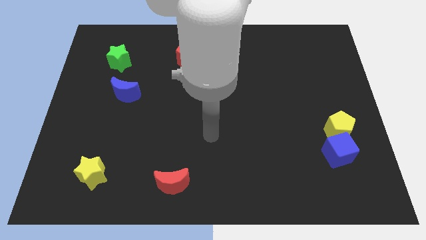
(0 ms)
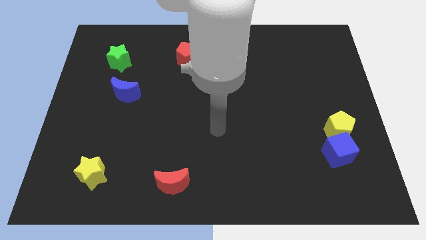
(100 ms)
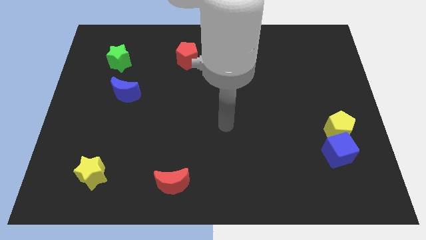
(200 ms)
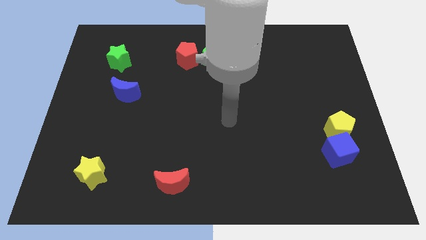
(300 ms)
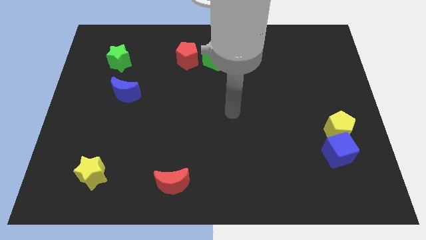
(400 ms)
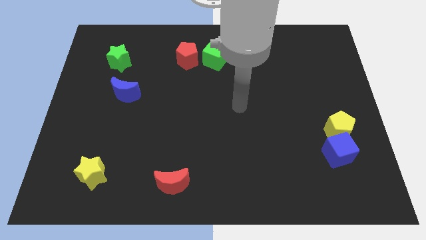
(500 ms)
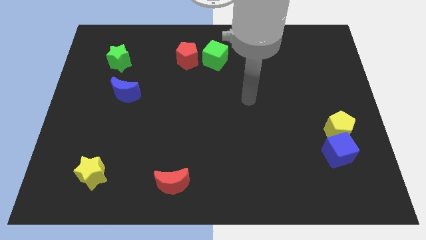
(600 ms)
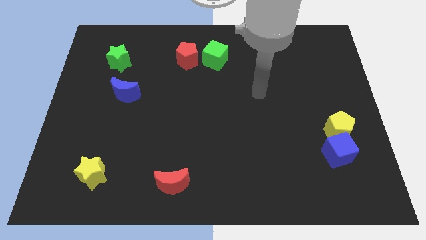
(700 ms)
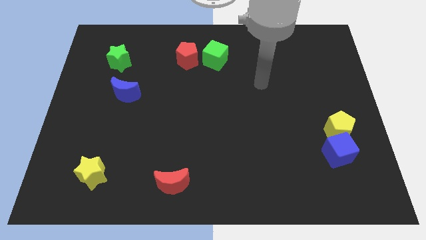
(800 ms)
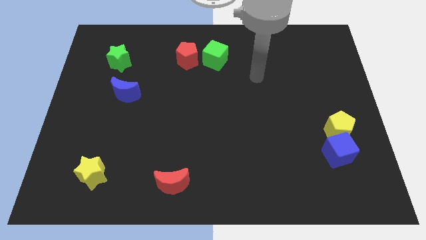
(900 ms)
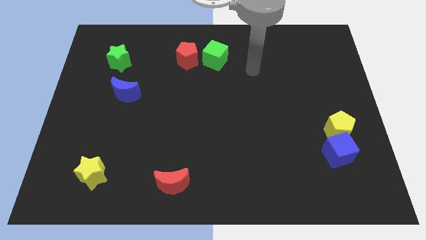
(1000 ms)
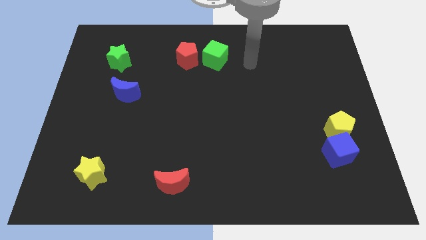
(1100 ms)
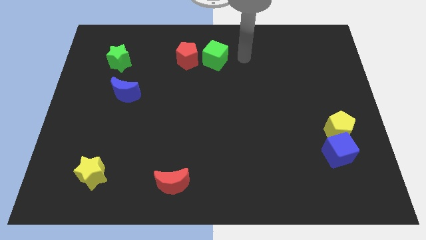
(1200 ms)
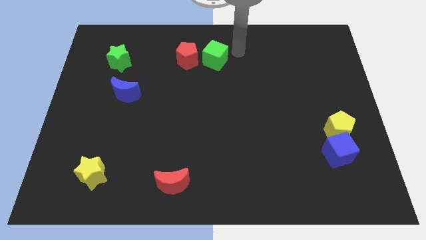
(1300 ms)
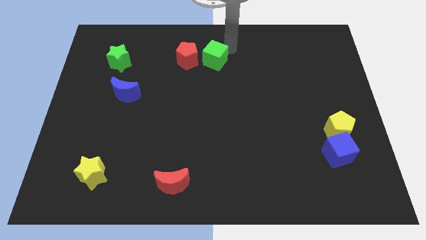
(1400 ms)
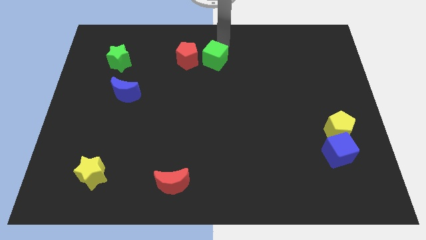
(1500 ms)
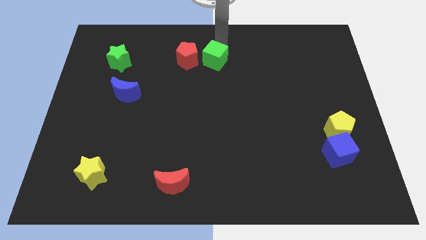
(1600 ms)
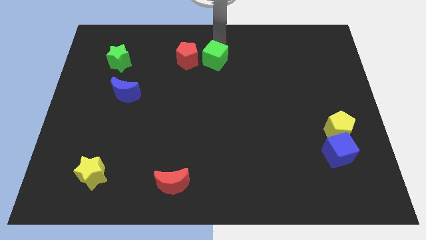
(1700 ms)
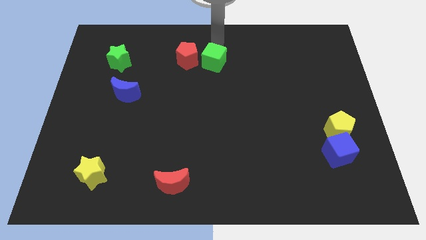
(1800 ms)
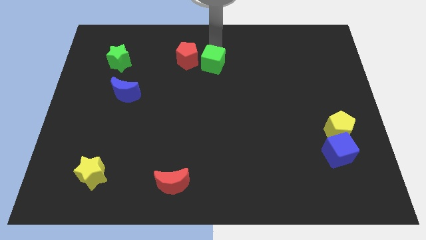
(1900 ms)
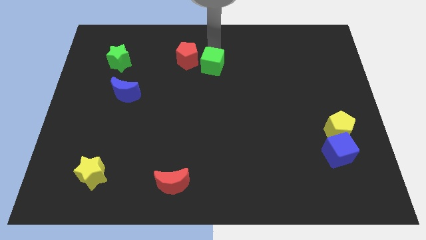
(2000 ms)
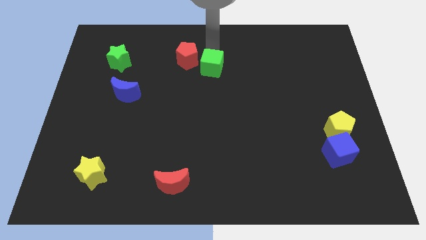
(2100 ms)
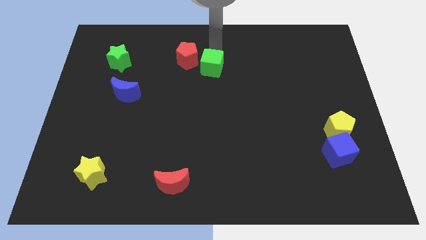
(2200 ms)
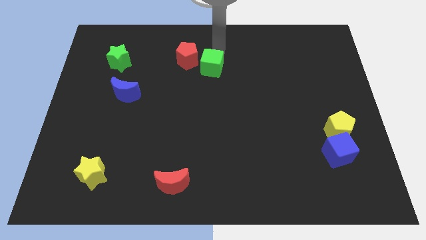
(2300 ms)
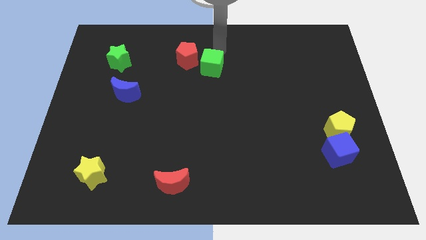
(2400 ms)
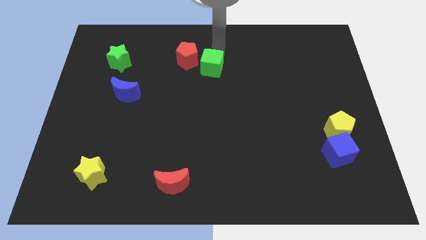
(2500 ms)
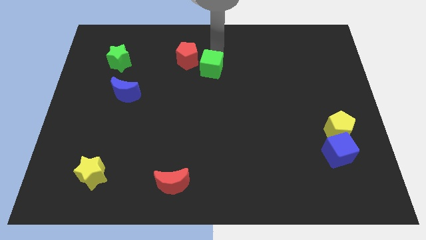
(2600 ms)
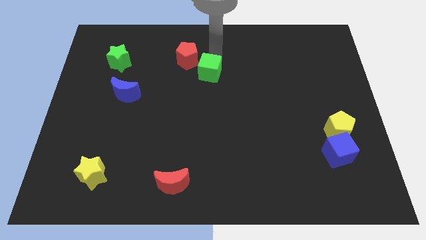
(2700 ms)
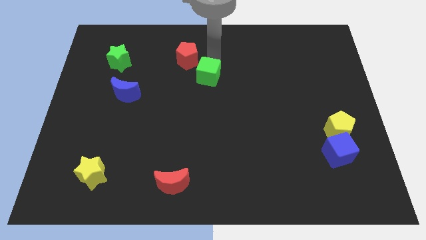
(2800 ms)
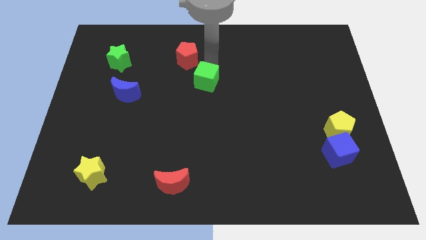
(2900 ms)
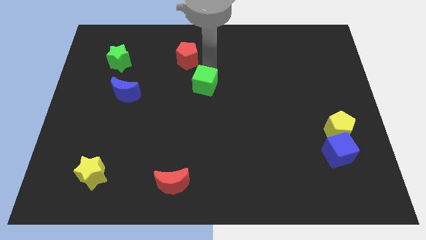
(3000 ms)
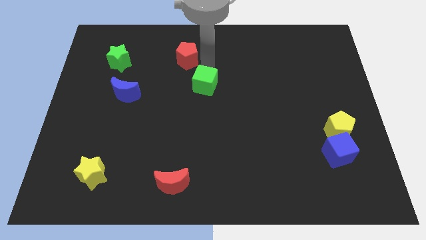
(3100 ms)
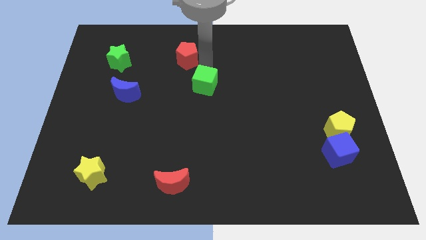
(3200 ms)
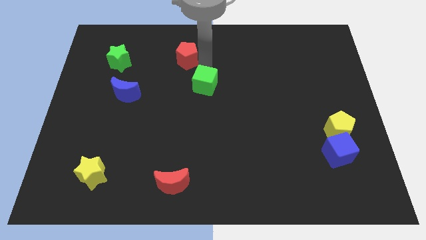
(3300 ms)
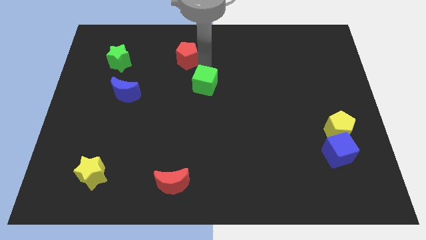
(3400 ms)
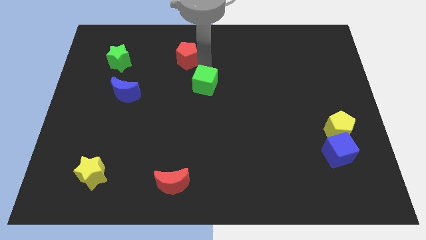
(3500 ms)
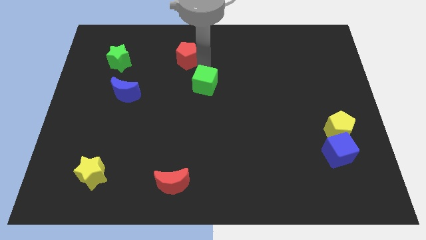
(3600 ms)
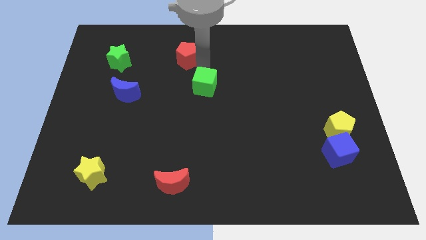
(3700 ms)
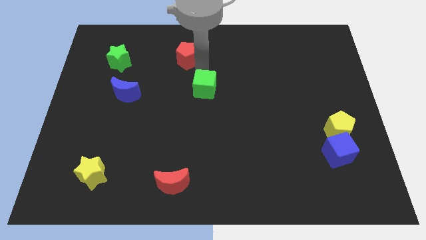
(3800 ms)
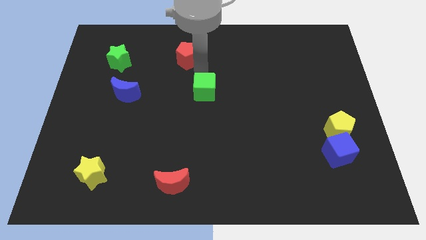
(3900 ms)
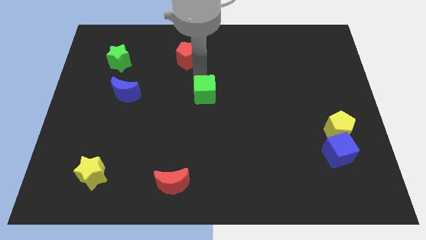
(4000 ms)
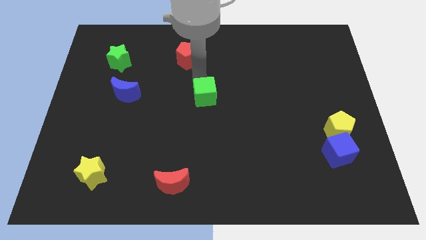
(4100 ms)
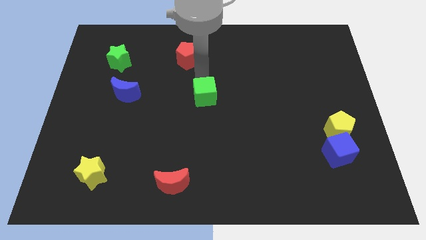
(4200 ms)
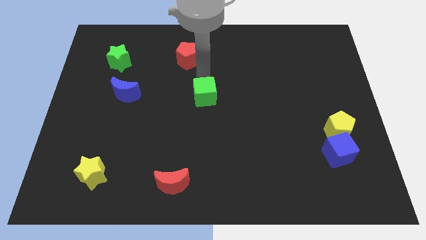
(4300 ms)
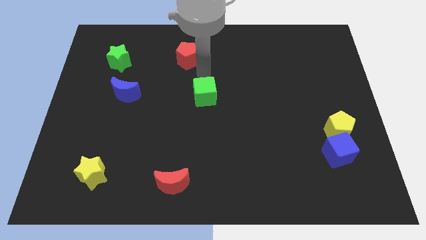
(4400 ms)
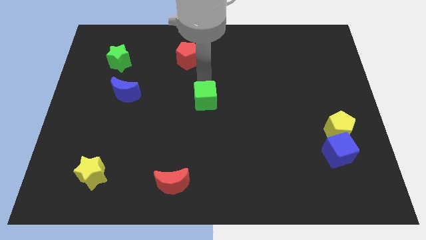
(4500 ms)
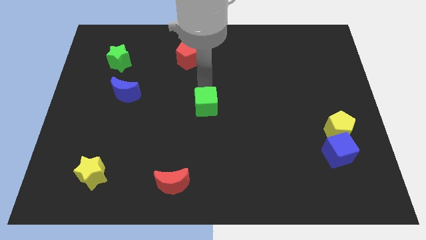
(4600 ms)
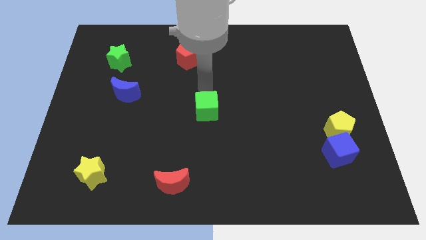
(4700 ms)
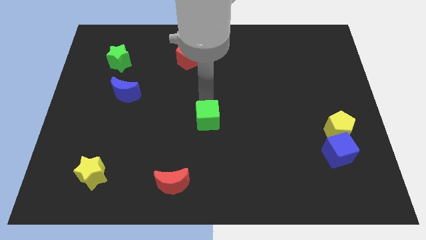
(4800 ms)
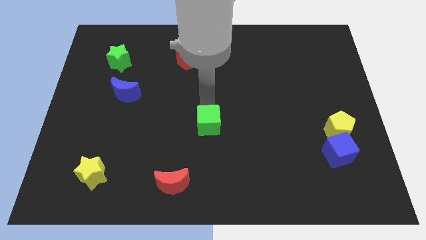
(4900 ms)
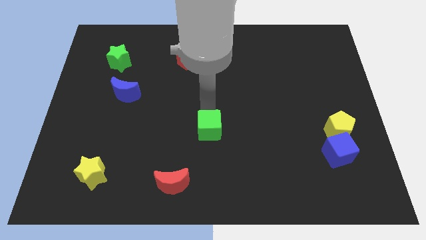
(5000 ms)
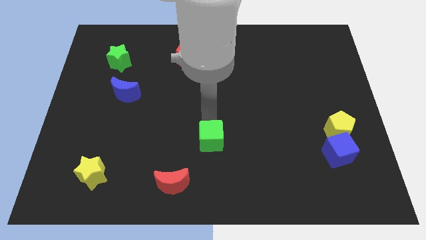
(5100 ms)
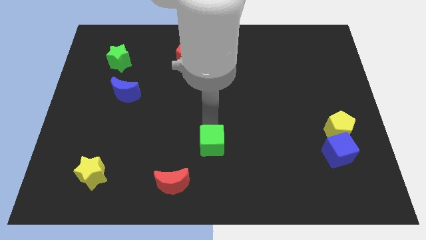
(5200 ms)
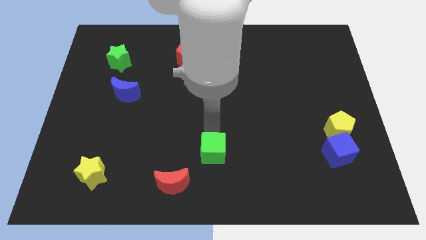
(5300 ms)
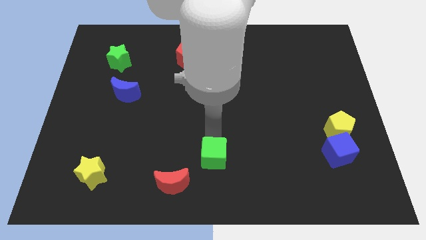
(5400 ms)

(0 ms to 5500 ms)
slide the green cube to the bottom
